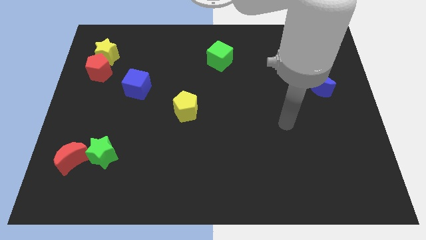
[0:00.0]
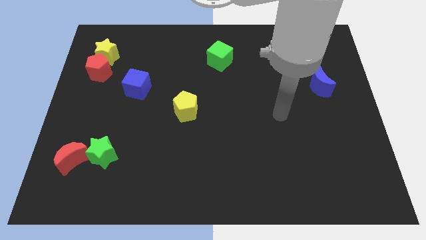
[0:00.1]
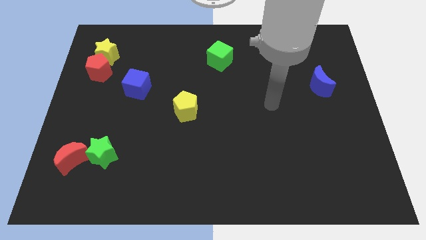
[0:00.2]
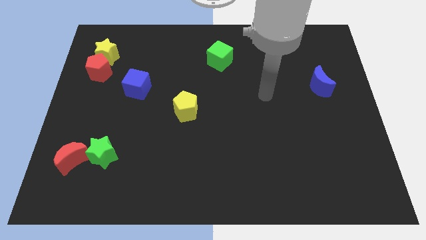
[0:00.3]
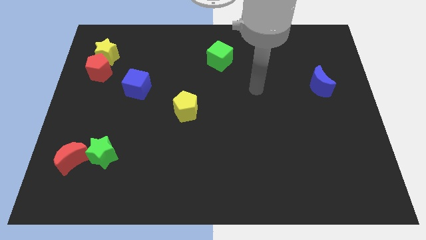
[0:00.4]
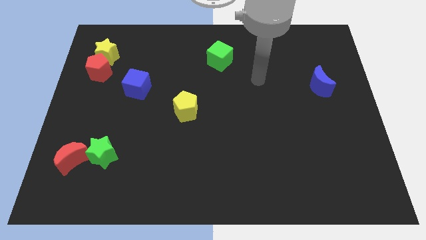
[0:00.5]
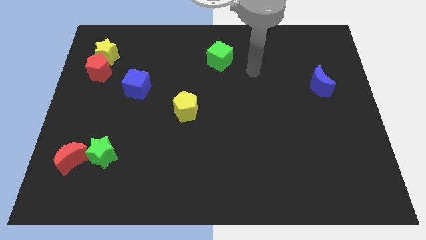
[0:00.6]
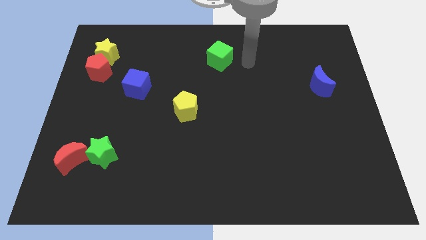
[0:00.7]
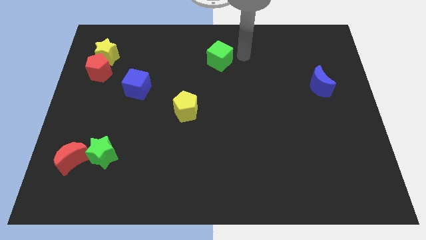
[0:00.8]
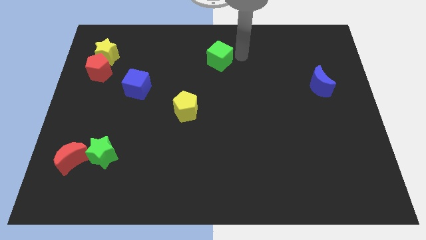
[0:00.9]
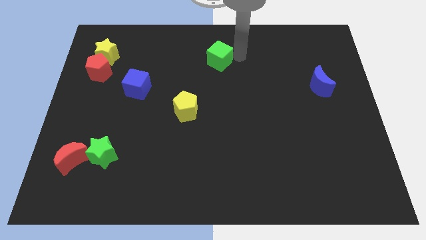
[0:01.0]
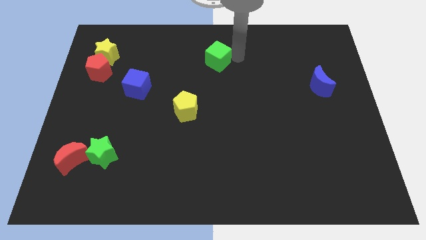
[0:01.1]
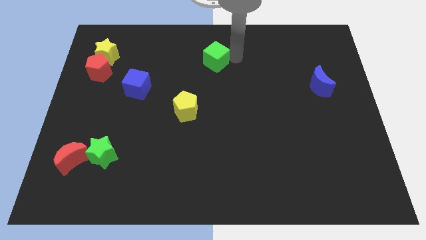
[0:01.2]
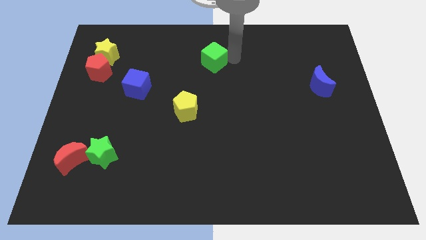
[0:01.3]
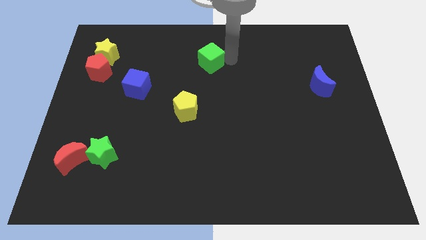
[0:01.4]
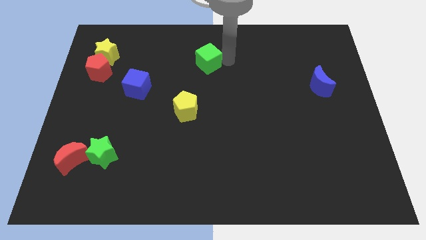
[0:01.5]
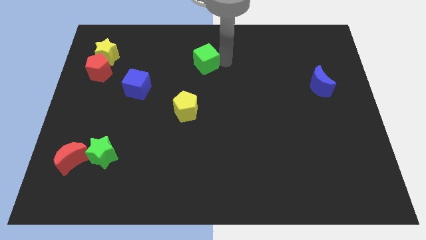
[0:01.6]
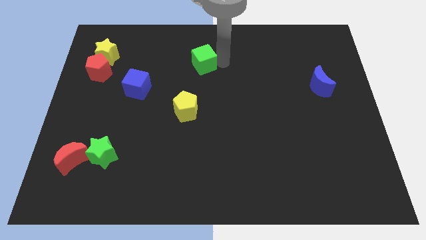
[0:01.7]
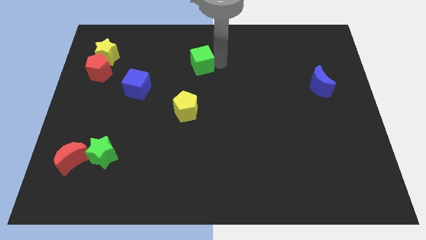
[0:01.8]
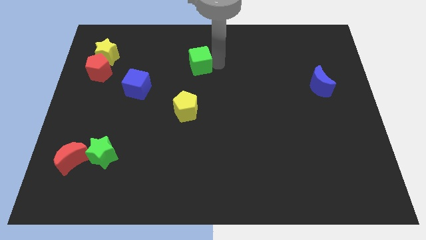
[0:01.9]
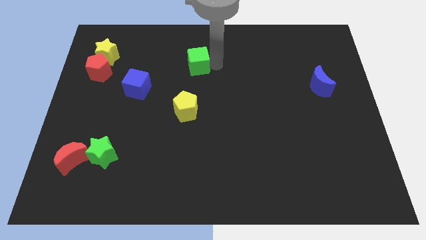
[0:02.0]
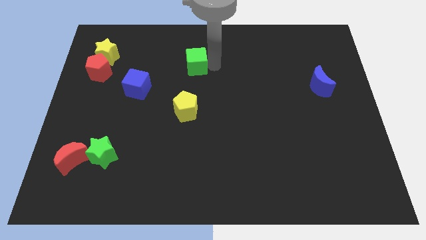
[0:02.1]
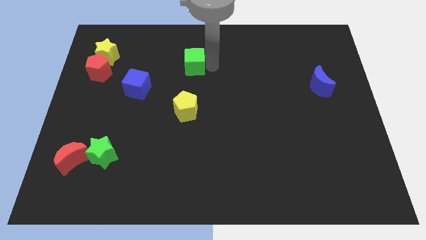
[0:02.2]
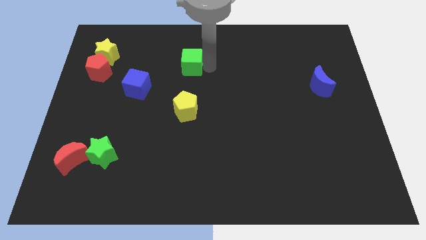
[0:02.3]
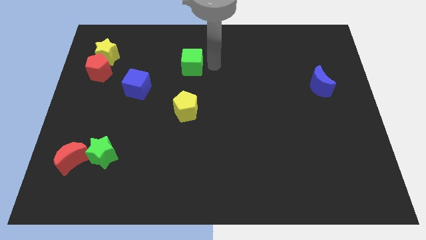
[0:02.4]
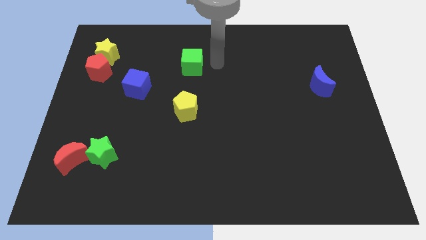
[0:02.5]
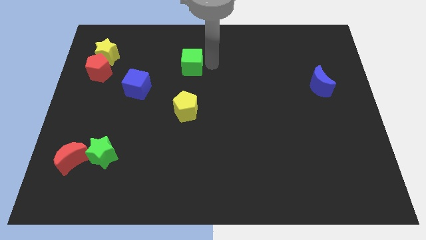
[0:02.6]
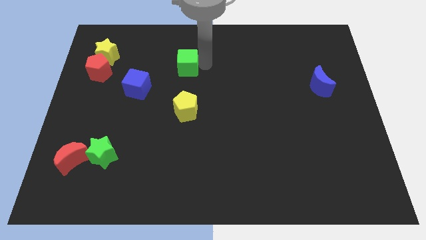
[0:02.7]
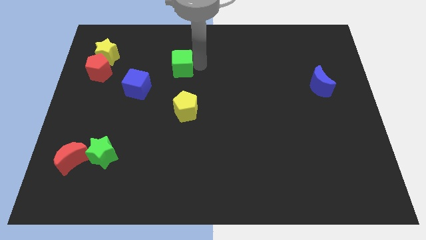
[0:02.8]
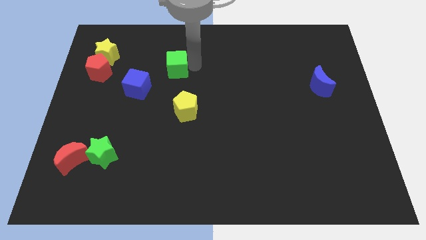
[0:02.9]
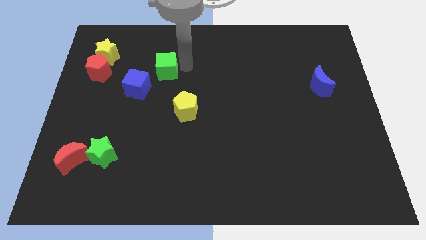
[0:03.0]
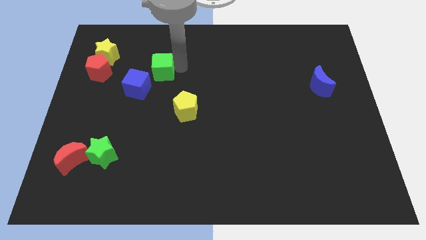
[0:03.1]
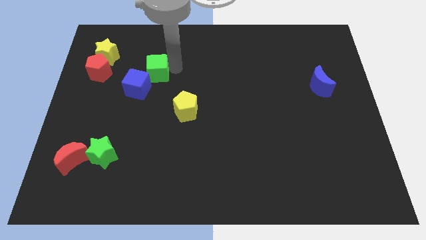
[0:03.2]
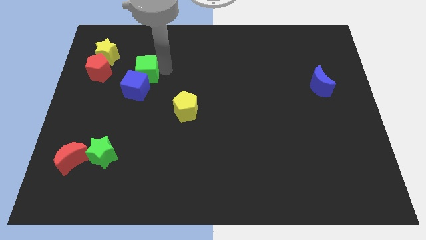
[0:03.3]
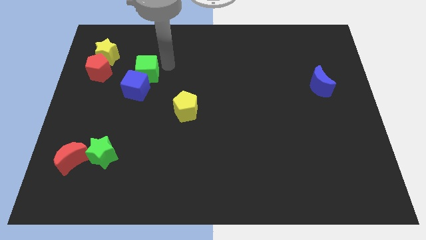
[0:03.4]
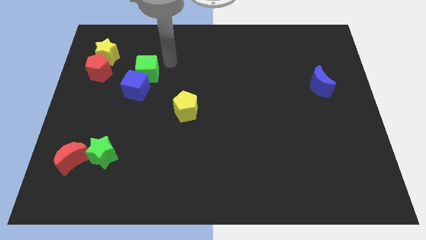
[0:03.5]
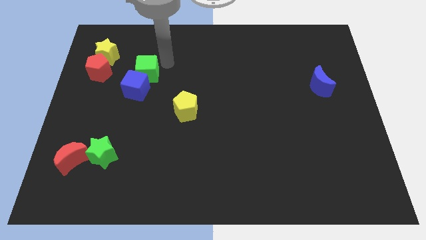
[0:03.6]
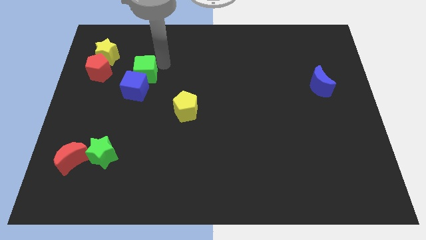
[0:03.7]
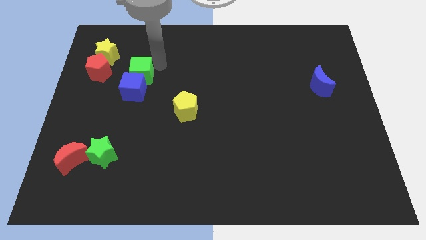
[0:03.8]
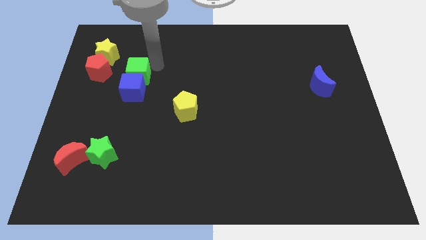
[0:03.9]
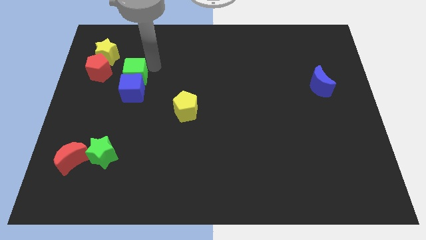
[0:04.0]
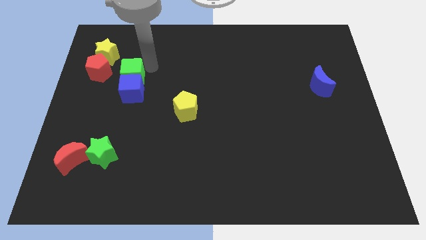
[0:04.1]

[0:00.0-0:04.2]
move the green cube diagonally down and to the right of the red pentagon

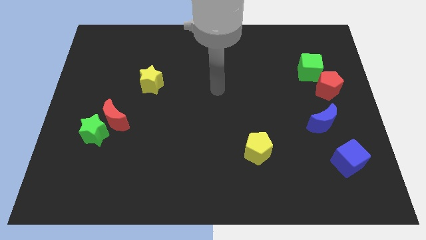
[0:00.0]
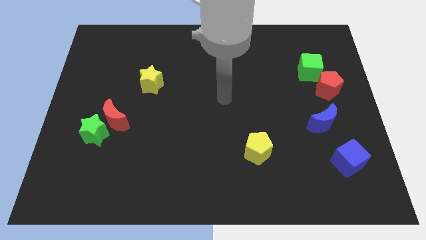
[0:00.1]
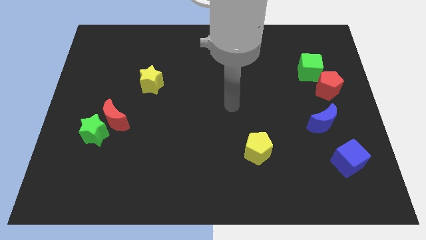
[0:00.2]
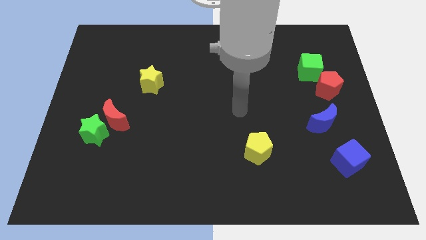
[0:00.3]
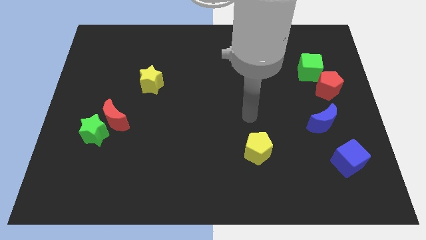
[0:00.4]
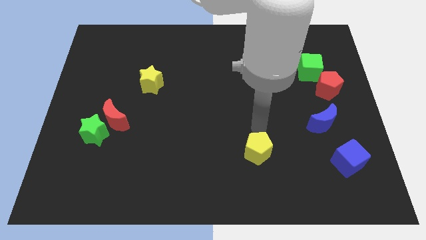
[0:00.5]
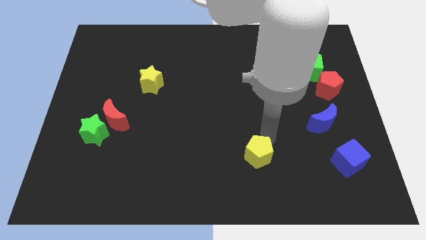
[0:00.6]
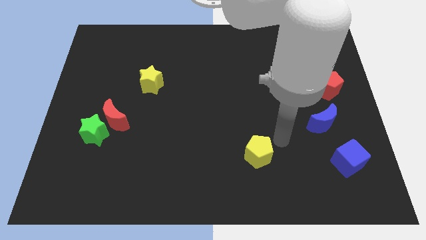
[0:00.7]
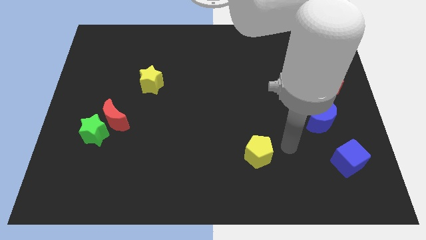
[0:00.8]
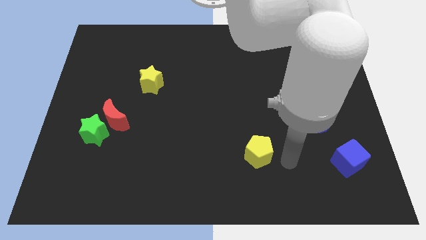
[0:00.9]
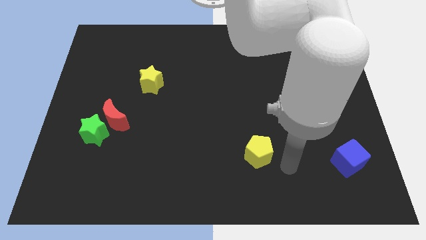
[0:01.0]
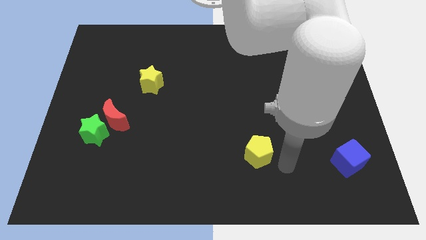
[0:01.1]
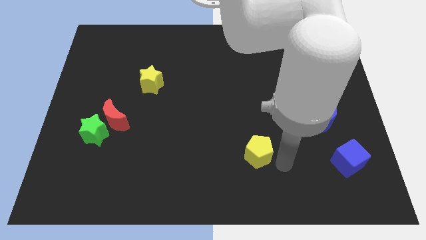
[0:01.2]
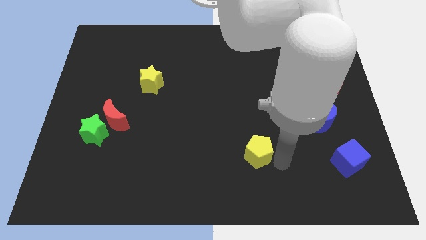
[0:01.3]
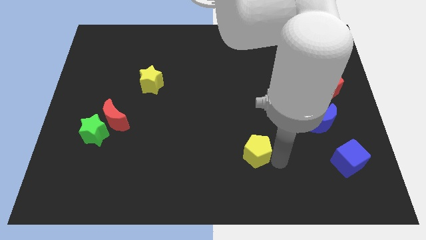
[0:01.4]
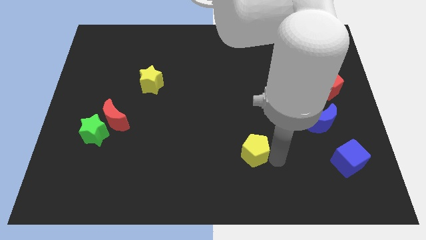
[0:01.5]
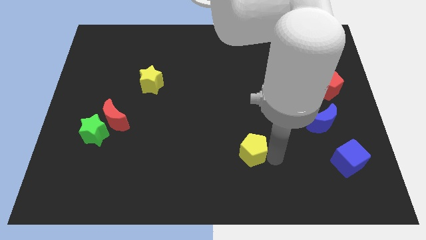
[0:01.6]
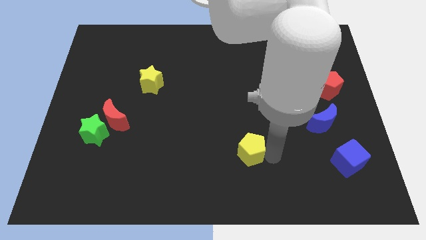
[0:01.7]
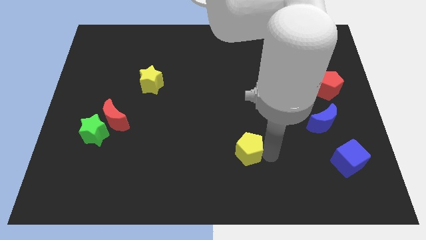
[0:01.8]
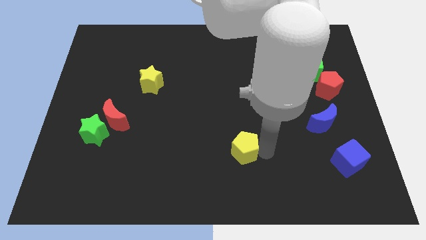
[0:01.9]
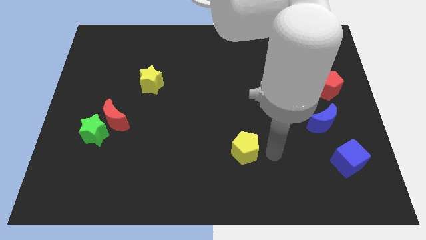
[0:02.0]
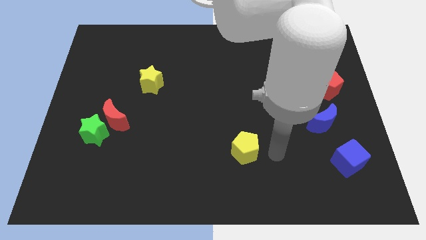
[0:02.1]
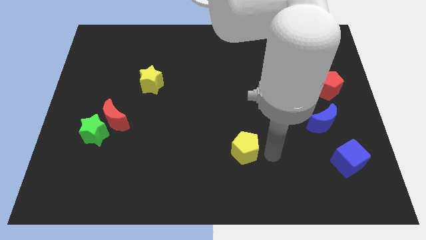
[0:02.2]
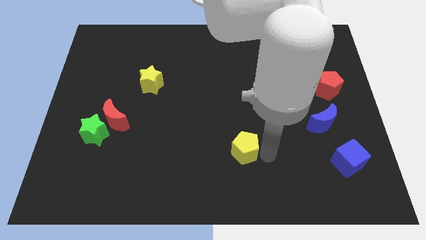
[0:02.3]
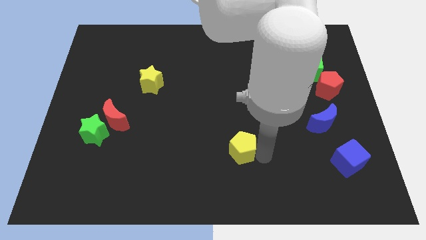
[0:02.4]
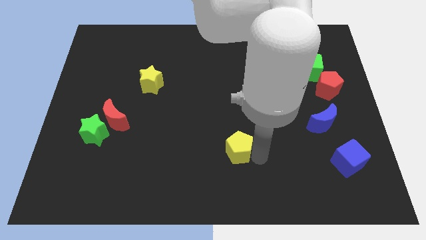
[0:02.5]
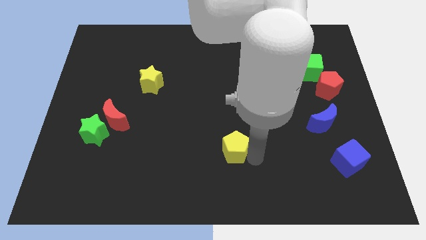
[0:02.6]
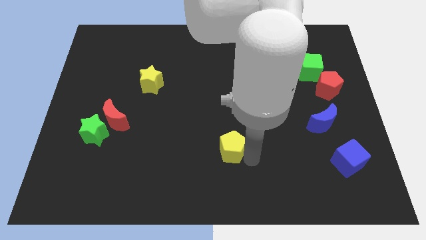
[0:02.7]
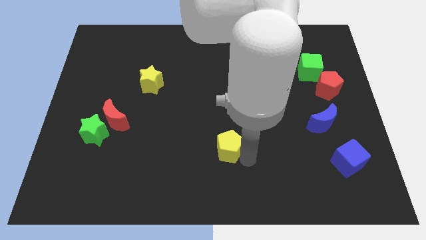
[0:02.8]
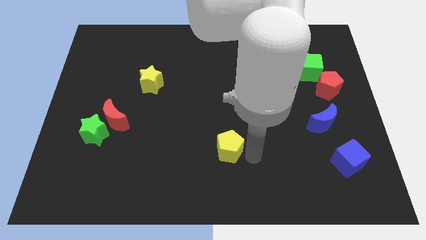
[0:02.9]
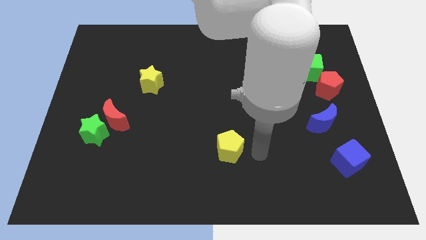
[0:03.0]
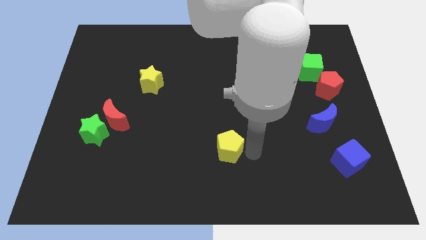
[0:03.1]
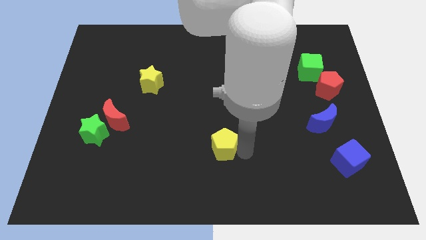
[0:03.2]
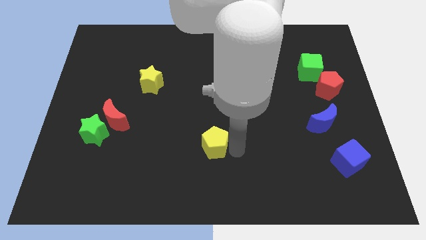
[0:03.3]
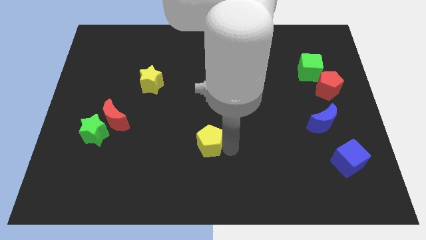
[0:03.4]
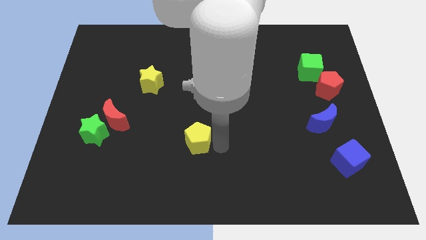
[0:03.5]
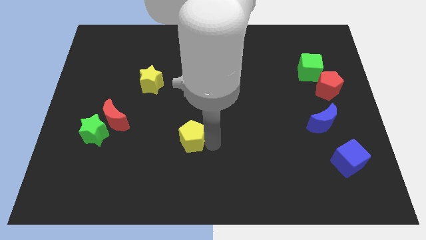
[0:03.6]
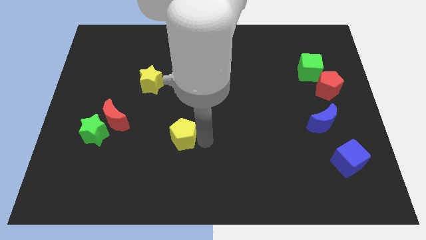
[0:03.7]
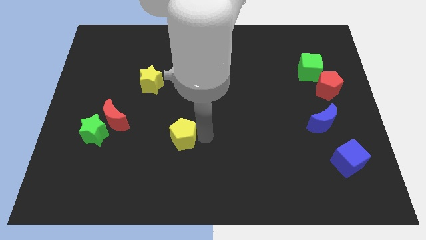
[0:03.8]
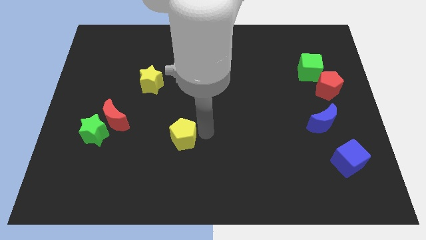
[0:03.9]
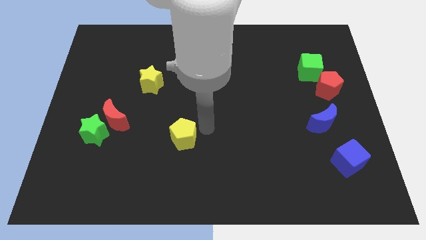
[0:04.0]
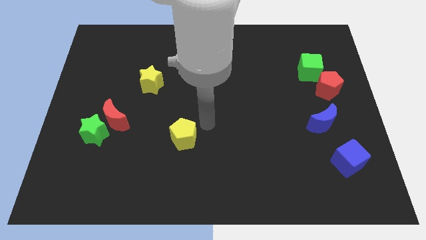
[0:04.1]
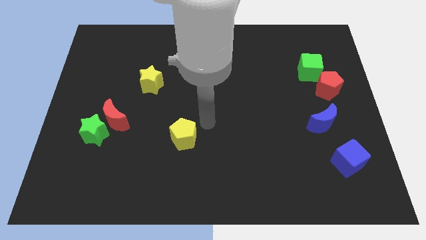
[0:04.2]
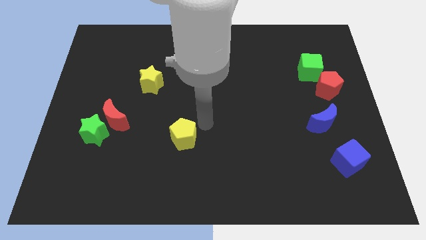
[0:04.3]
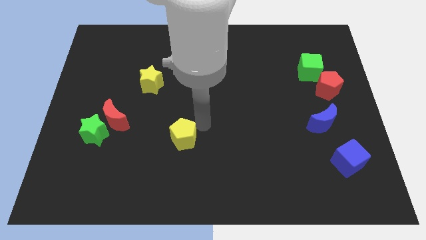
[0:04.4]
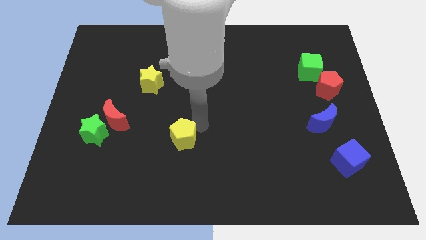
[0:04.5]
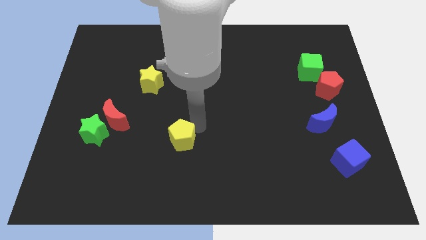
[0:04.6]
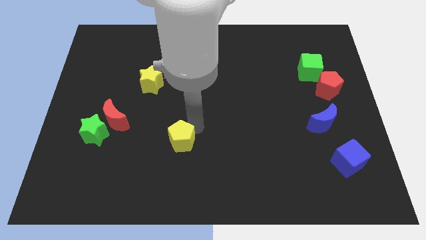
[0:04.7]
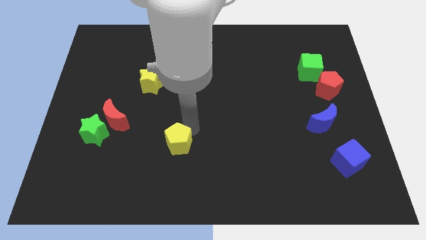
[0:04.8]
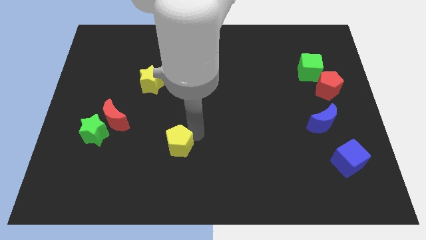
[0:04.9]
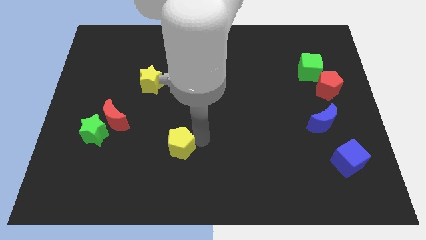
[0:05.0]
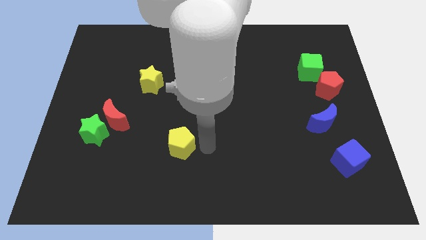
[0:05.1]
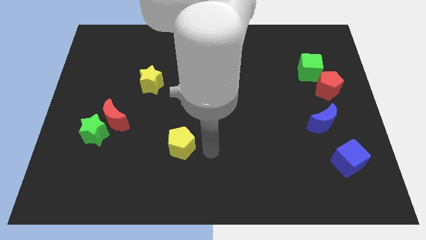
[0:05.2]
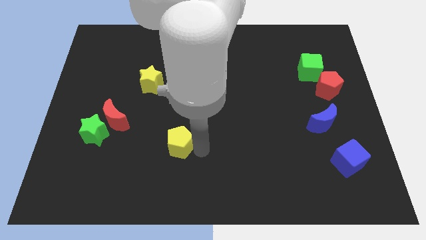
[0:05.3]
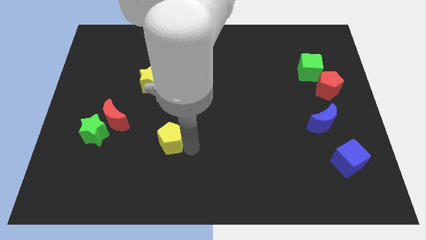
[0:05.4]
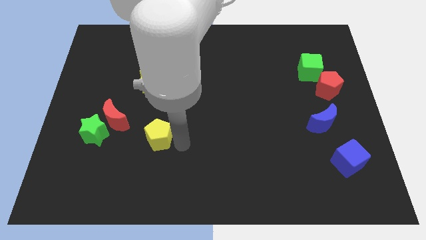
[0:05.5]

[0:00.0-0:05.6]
move the yellow pentagon to the bottom right side of the red moon
